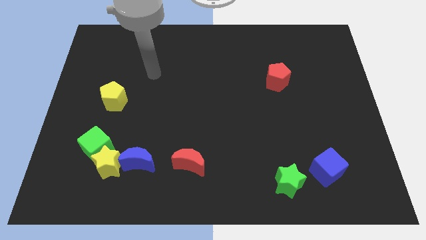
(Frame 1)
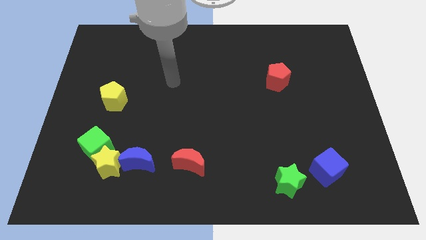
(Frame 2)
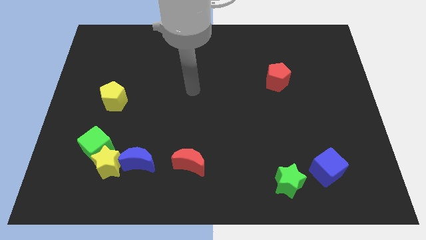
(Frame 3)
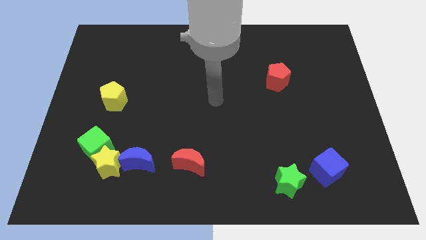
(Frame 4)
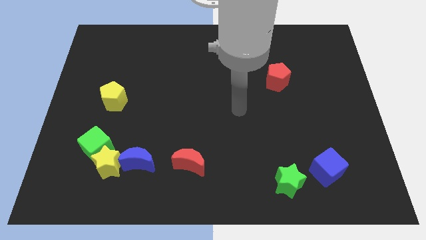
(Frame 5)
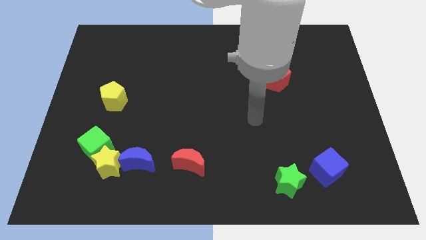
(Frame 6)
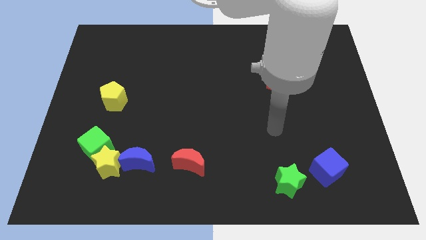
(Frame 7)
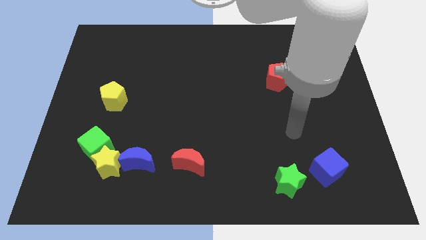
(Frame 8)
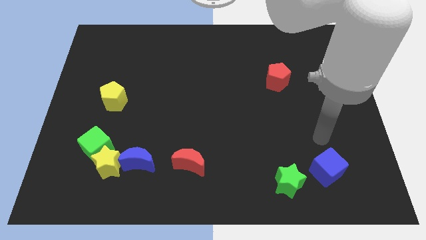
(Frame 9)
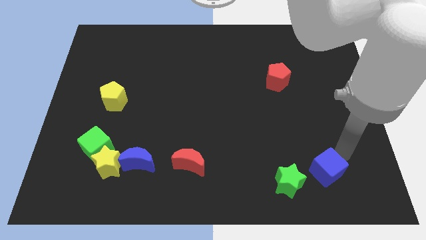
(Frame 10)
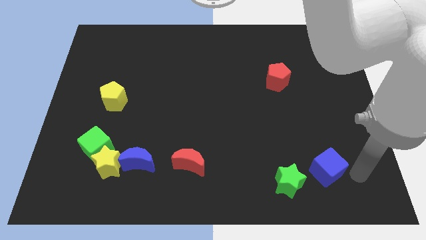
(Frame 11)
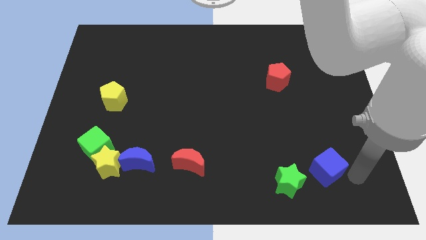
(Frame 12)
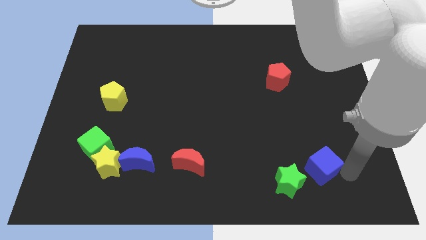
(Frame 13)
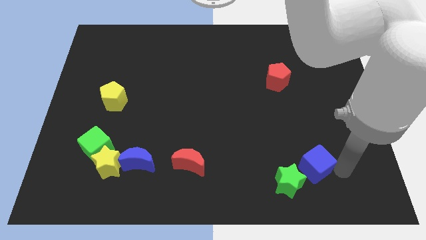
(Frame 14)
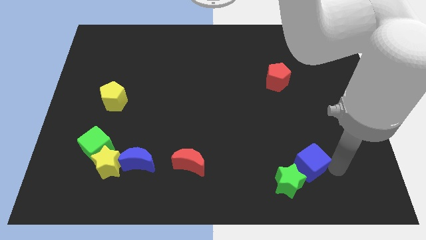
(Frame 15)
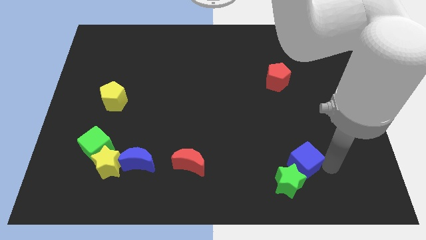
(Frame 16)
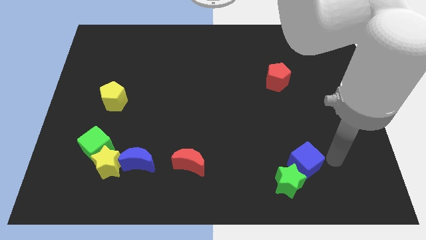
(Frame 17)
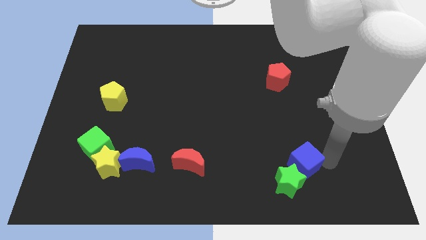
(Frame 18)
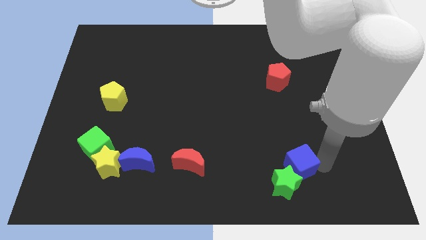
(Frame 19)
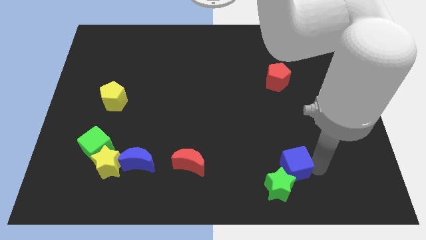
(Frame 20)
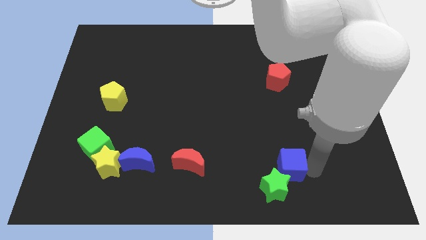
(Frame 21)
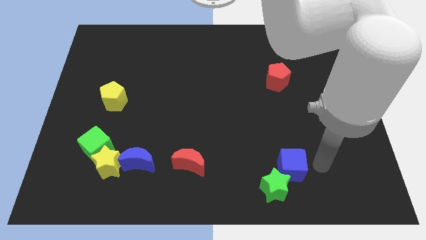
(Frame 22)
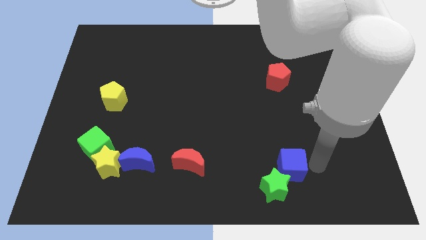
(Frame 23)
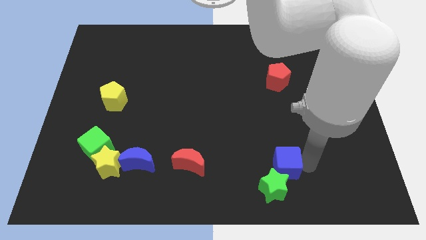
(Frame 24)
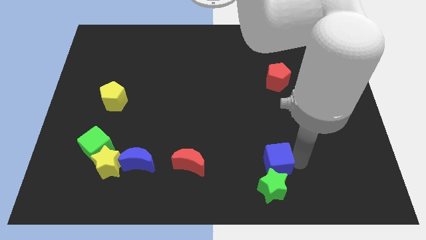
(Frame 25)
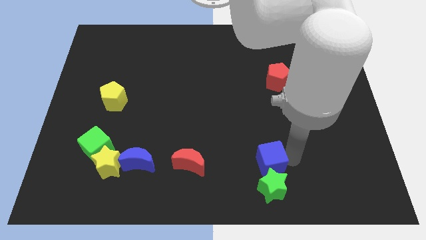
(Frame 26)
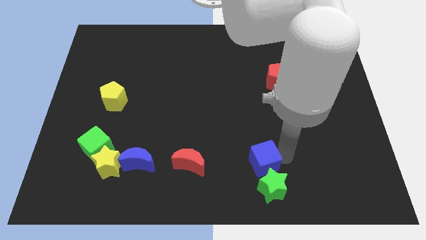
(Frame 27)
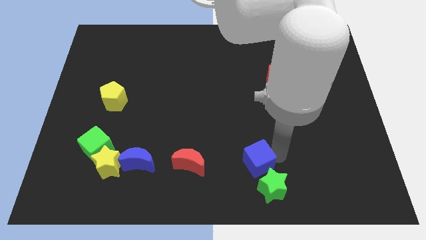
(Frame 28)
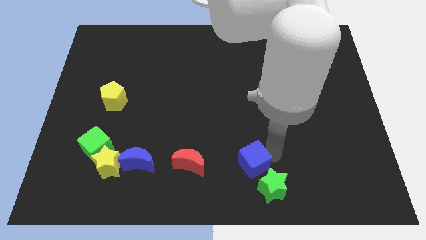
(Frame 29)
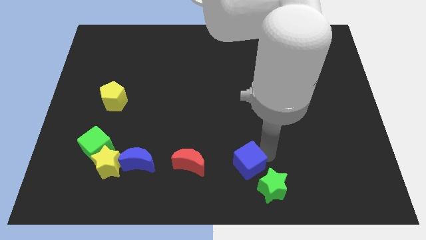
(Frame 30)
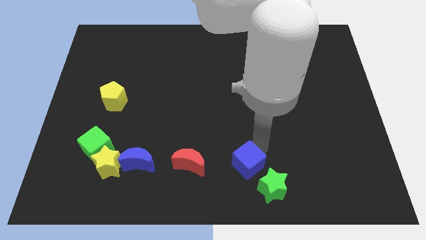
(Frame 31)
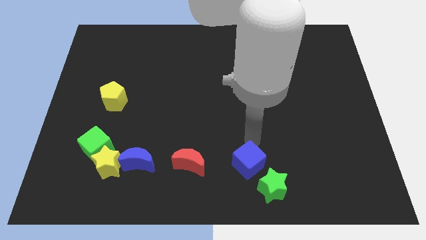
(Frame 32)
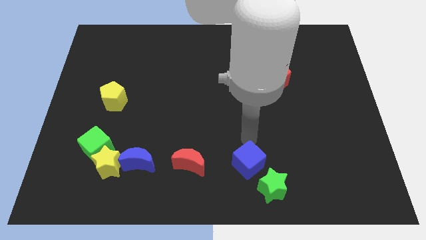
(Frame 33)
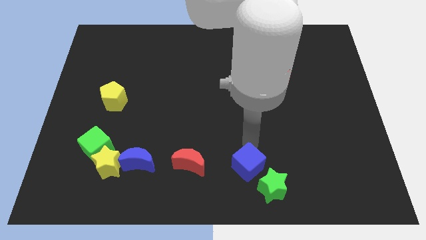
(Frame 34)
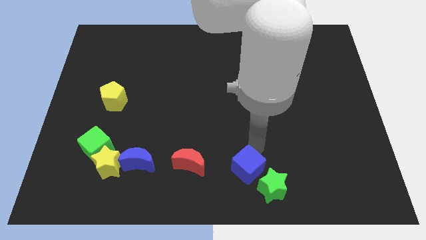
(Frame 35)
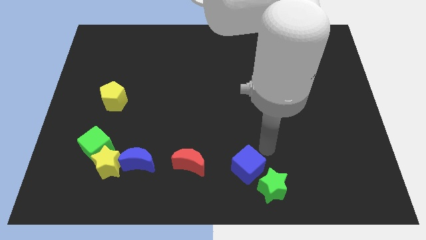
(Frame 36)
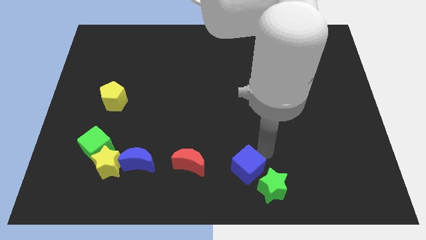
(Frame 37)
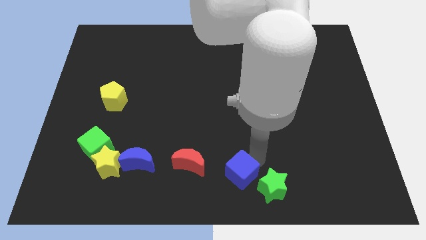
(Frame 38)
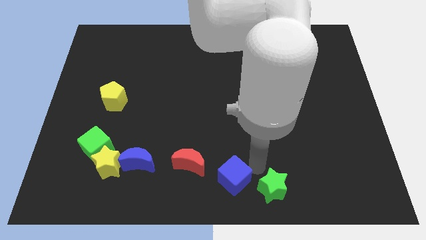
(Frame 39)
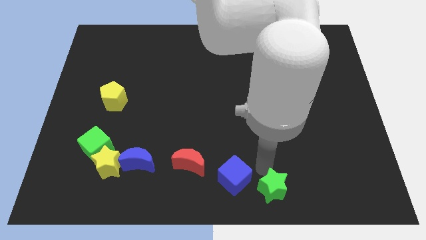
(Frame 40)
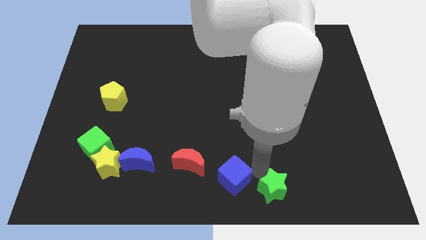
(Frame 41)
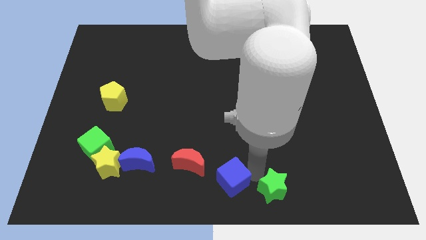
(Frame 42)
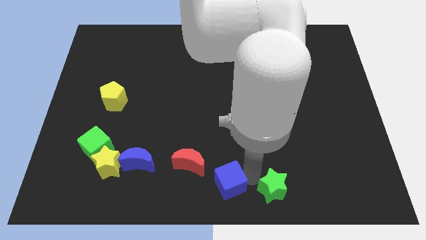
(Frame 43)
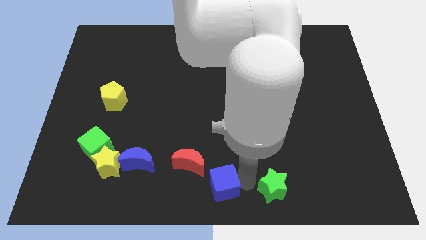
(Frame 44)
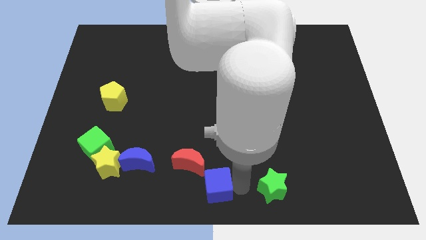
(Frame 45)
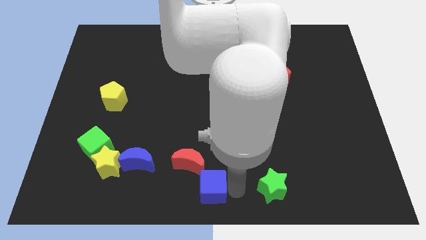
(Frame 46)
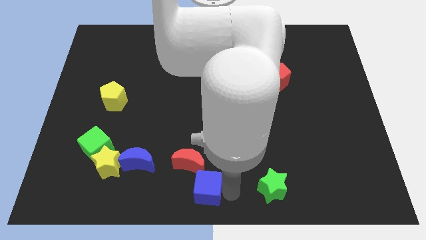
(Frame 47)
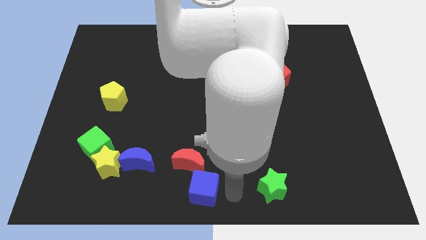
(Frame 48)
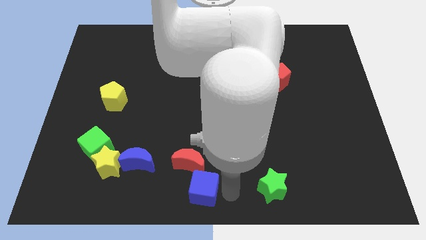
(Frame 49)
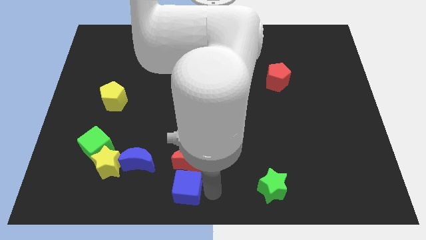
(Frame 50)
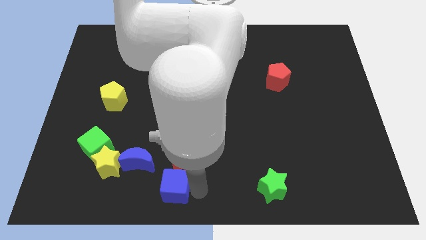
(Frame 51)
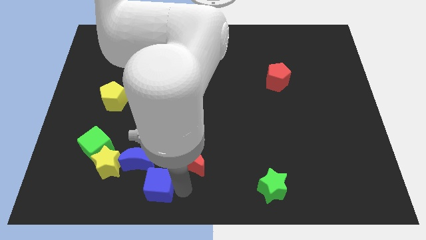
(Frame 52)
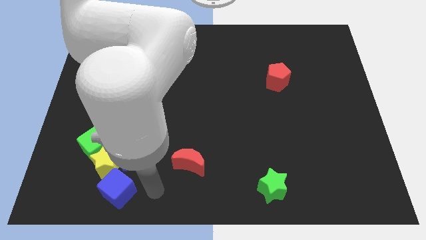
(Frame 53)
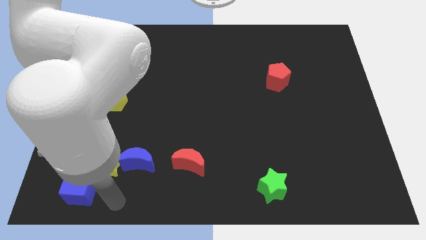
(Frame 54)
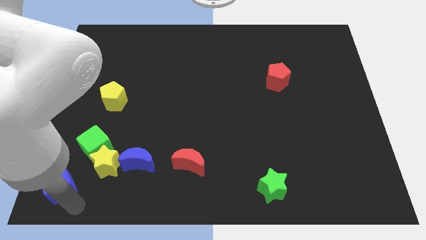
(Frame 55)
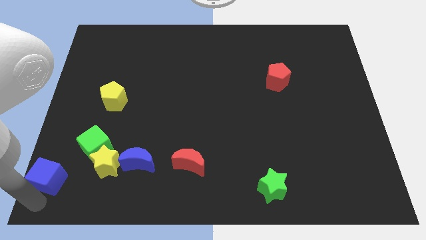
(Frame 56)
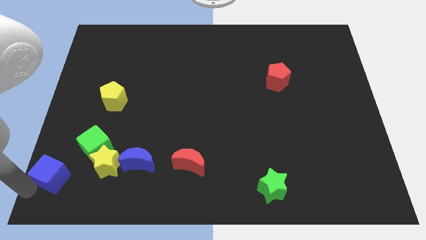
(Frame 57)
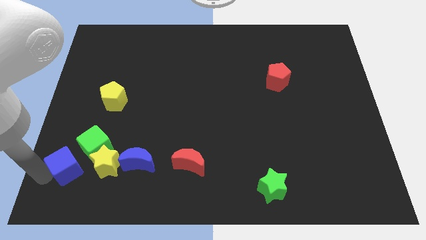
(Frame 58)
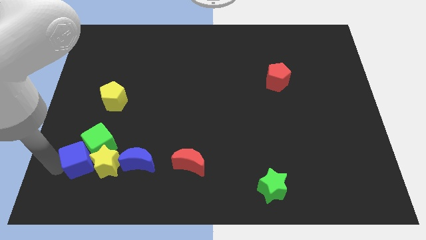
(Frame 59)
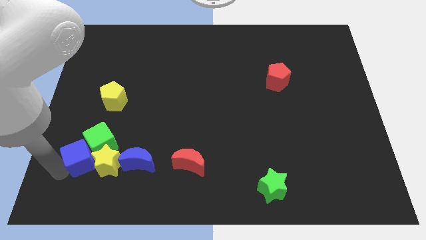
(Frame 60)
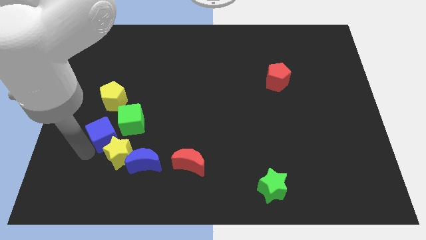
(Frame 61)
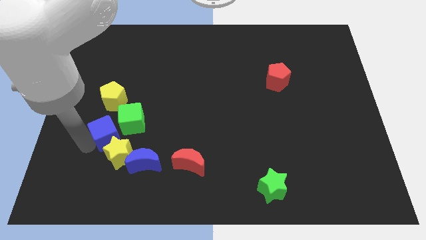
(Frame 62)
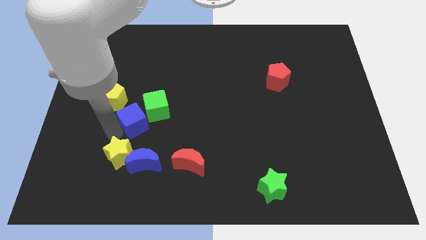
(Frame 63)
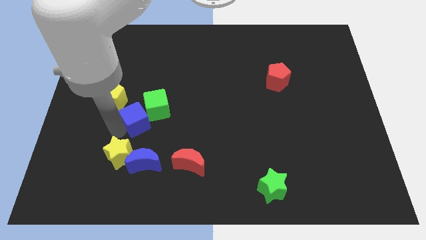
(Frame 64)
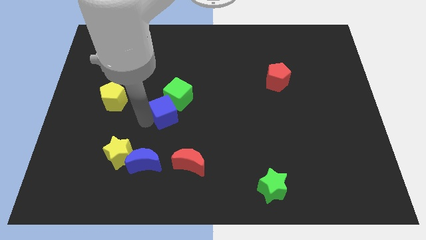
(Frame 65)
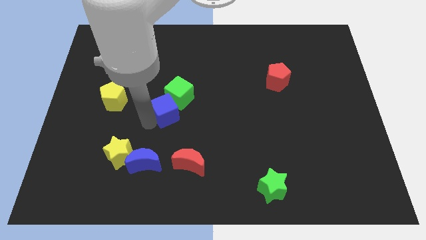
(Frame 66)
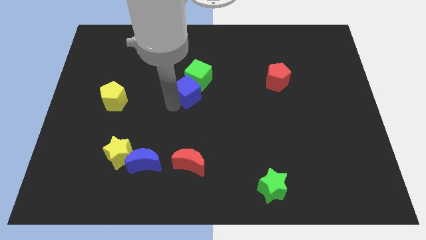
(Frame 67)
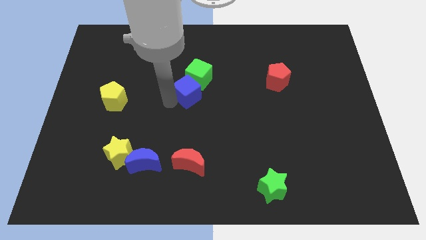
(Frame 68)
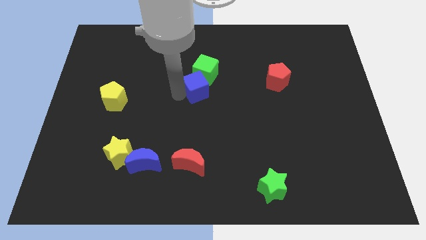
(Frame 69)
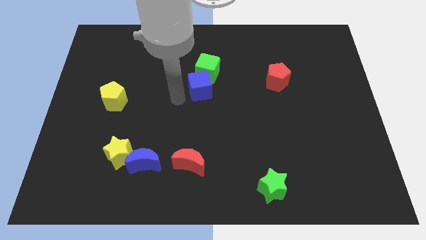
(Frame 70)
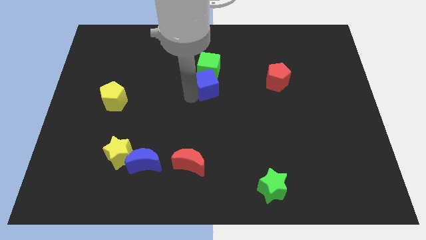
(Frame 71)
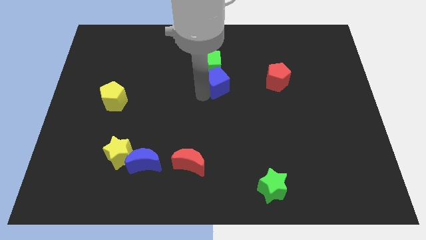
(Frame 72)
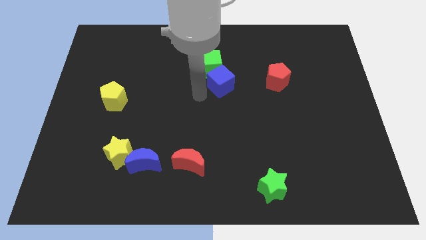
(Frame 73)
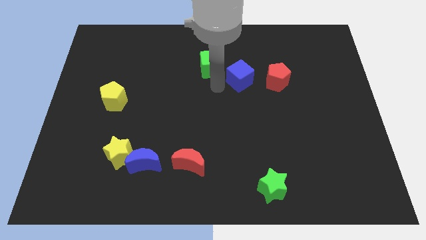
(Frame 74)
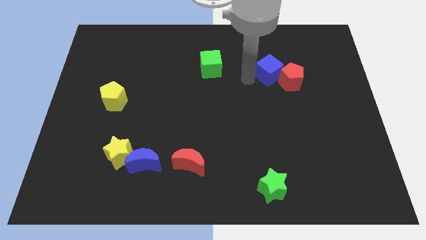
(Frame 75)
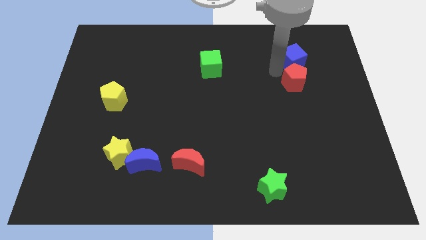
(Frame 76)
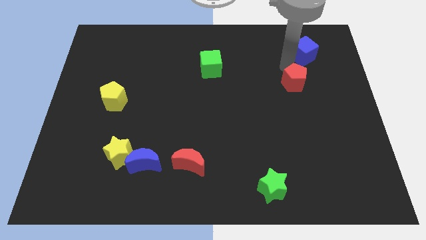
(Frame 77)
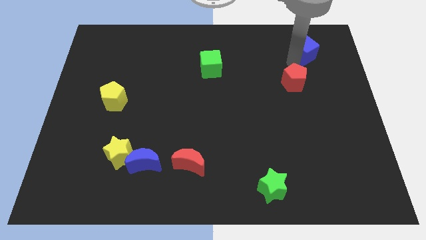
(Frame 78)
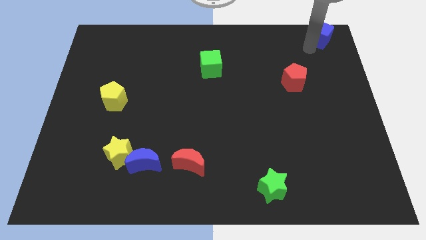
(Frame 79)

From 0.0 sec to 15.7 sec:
slide the blue cube to the top right corner
